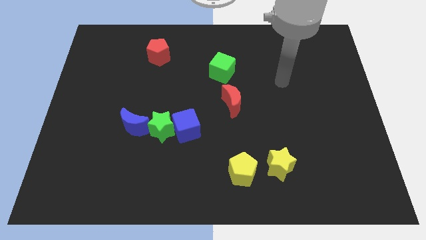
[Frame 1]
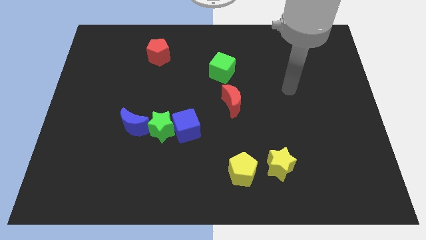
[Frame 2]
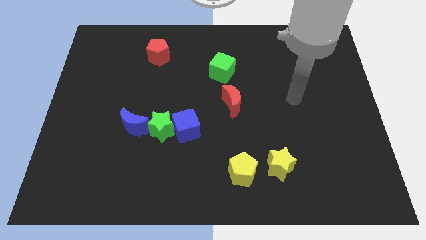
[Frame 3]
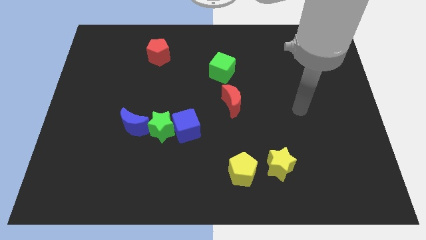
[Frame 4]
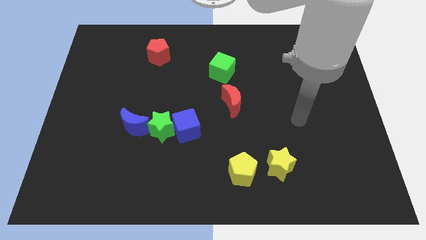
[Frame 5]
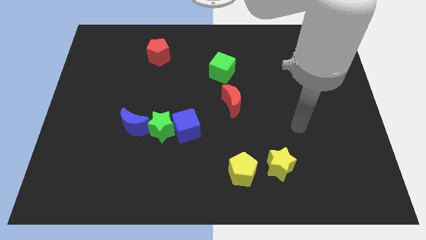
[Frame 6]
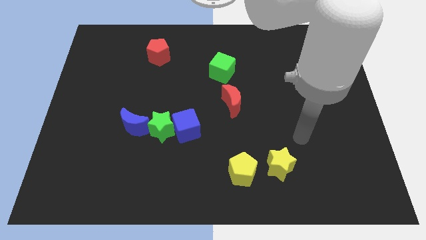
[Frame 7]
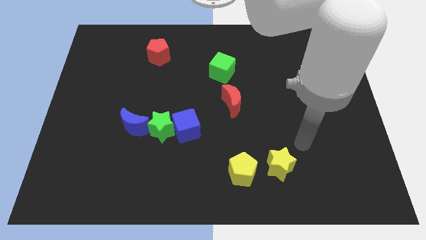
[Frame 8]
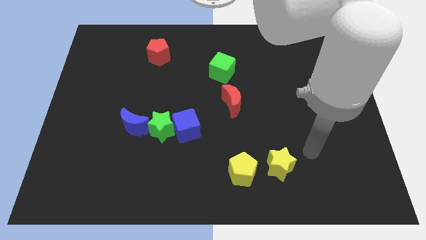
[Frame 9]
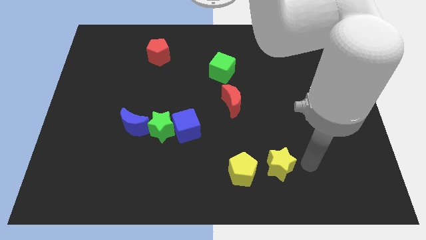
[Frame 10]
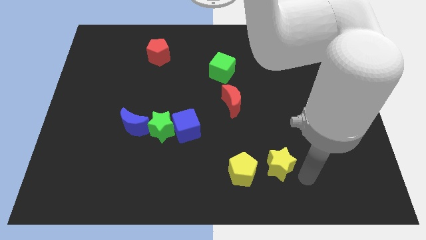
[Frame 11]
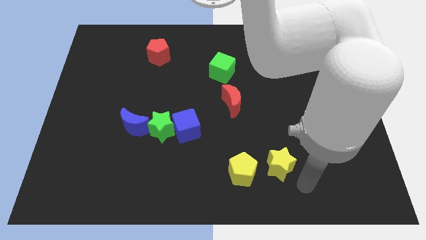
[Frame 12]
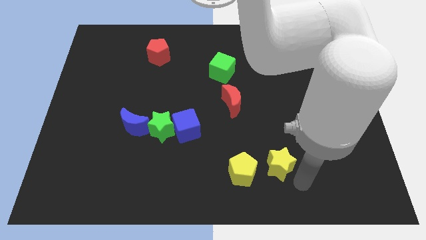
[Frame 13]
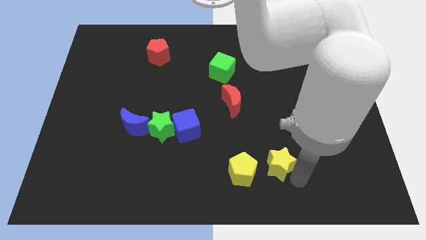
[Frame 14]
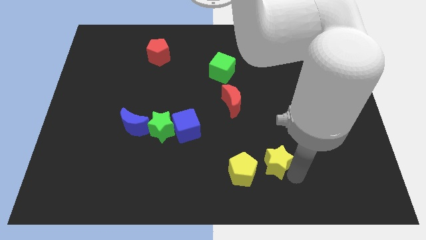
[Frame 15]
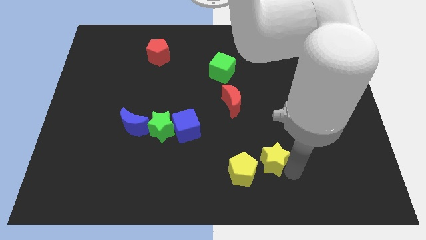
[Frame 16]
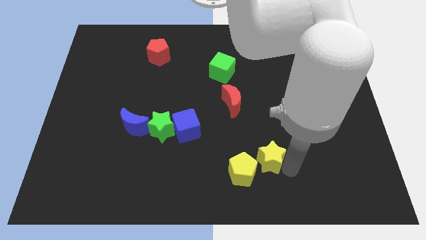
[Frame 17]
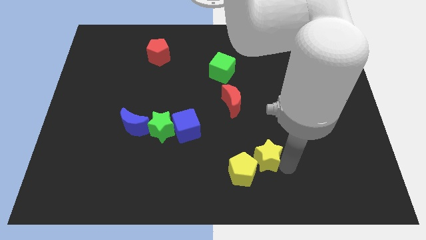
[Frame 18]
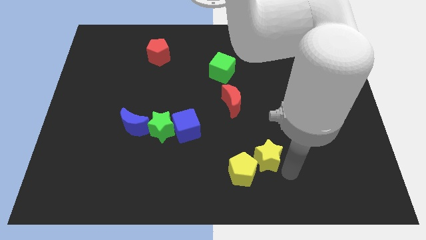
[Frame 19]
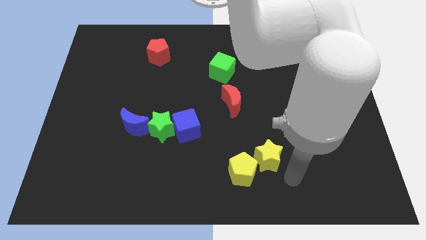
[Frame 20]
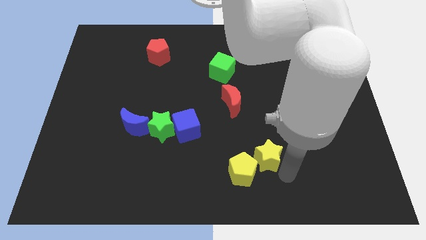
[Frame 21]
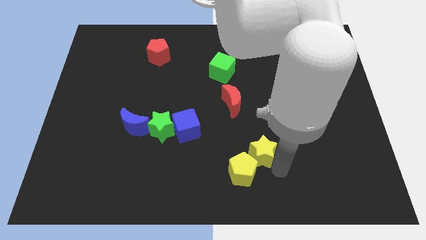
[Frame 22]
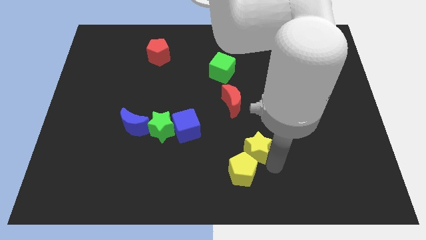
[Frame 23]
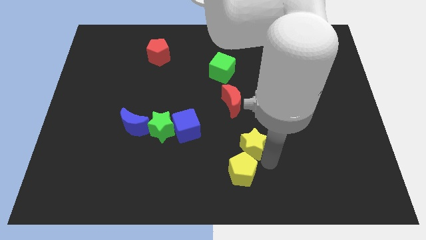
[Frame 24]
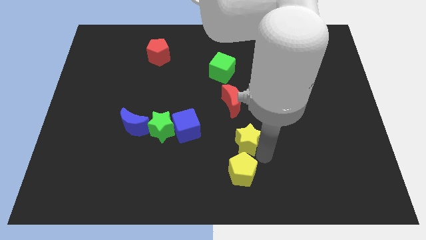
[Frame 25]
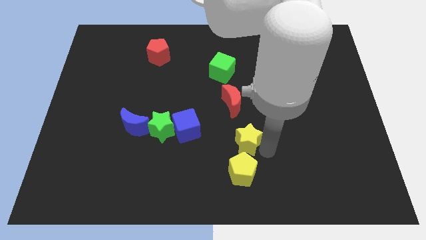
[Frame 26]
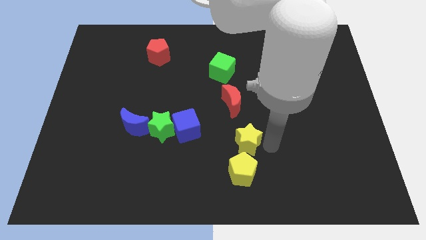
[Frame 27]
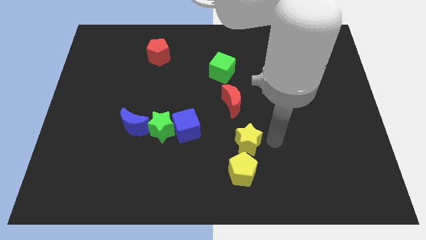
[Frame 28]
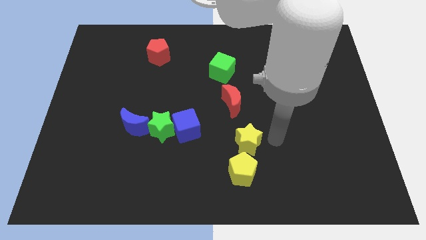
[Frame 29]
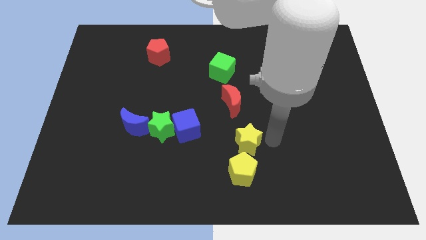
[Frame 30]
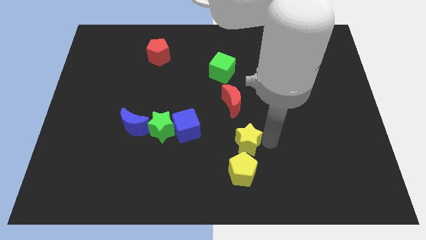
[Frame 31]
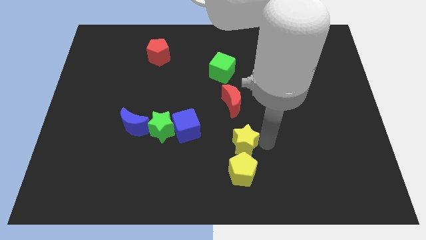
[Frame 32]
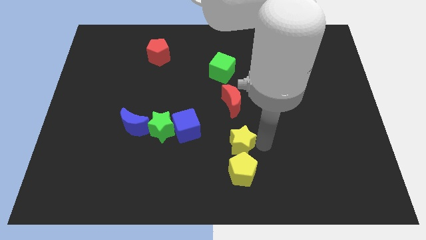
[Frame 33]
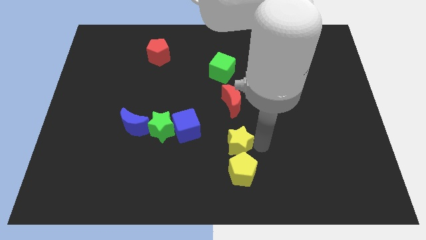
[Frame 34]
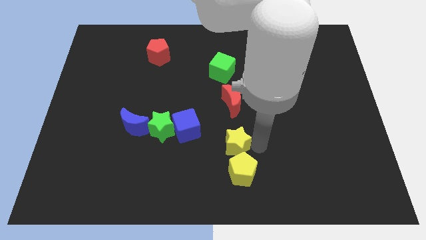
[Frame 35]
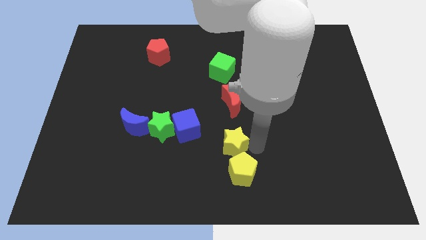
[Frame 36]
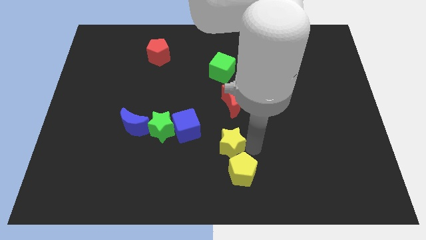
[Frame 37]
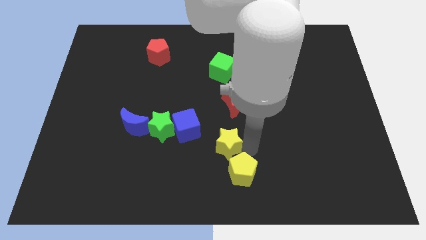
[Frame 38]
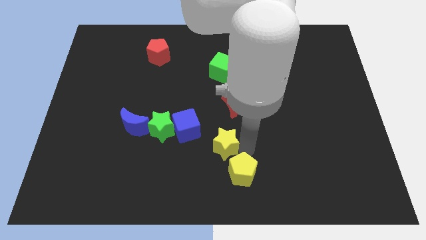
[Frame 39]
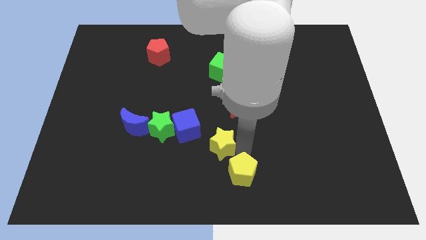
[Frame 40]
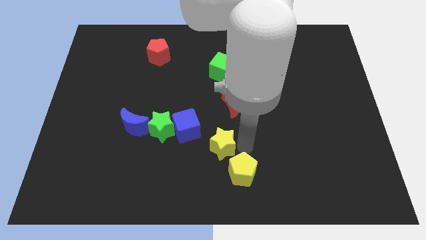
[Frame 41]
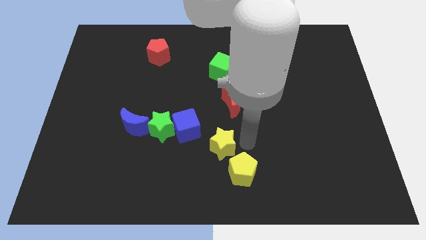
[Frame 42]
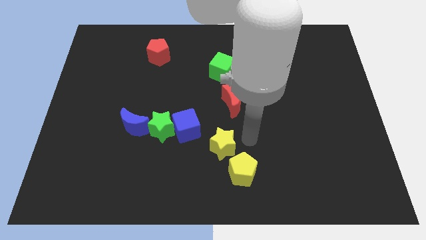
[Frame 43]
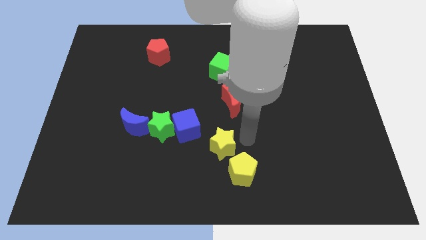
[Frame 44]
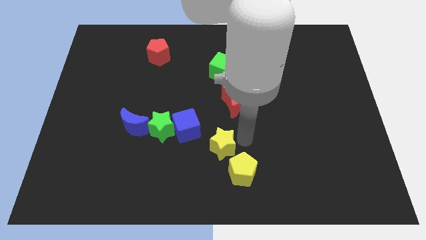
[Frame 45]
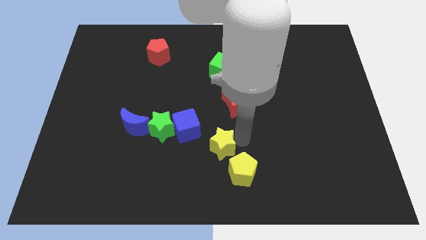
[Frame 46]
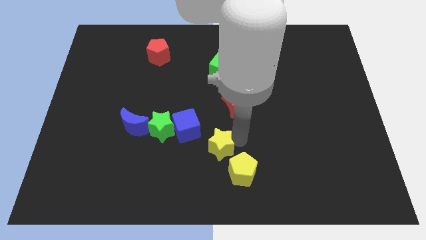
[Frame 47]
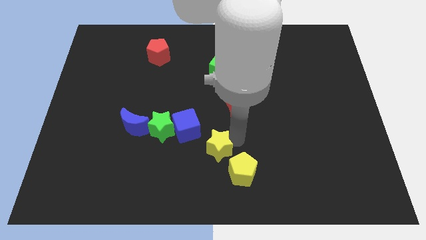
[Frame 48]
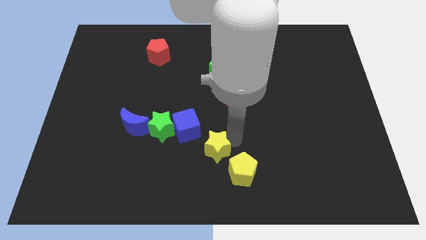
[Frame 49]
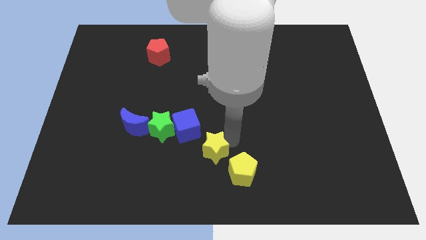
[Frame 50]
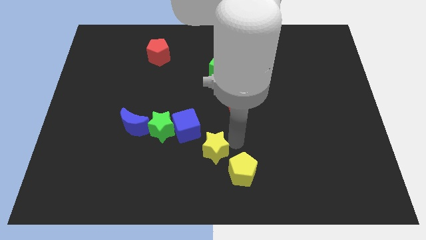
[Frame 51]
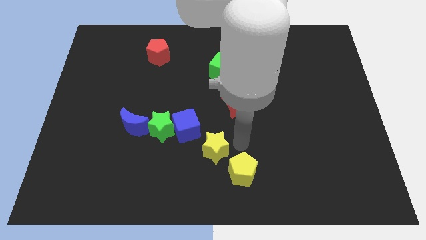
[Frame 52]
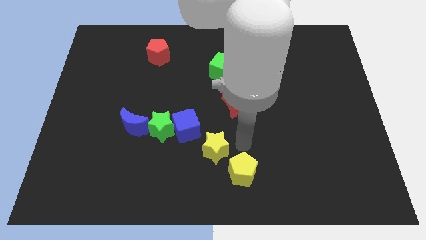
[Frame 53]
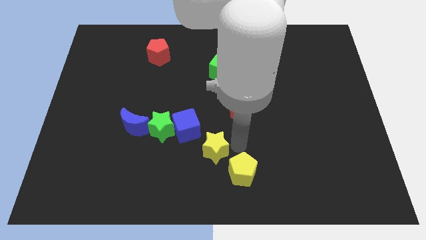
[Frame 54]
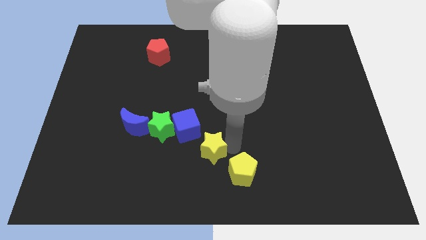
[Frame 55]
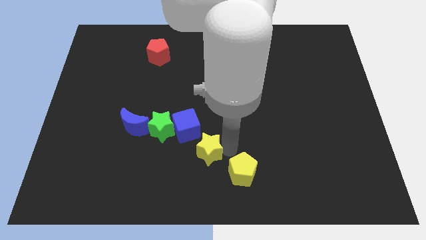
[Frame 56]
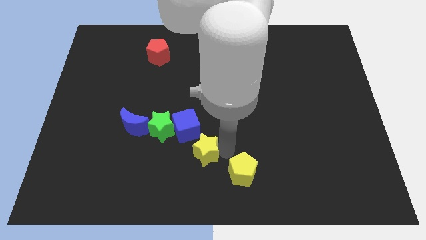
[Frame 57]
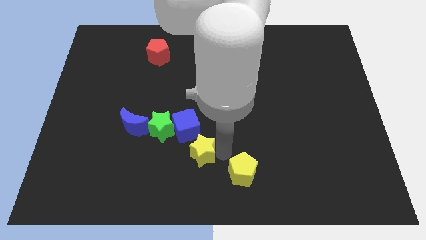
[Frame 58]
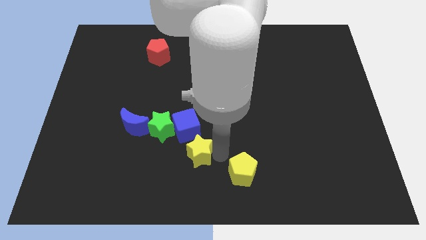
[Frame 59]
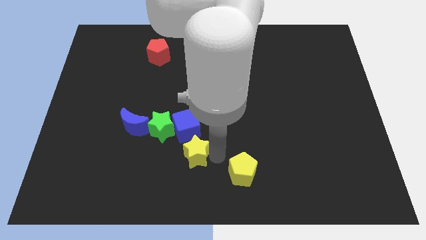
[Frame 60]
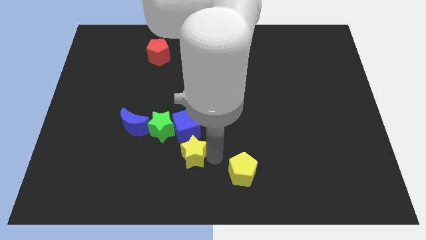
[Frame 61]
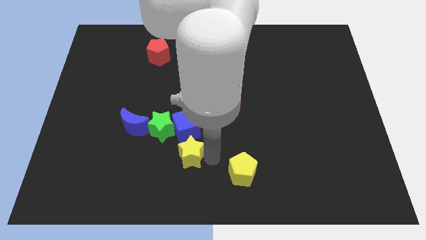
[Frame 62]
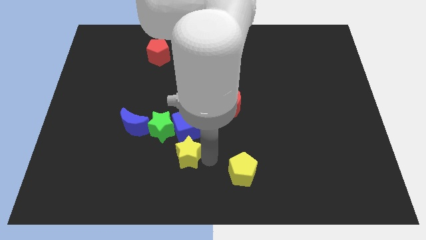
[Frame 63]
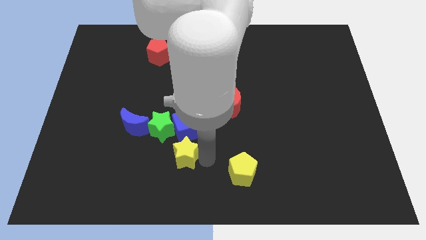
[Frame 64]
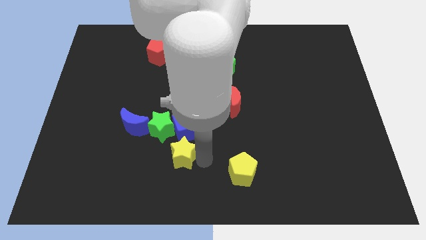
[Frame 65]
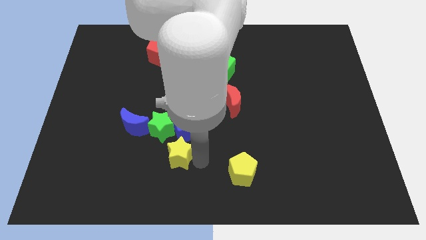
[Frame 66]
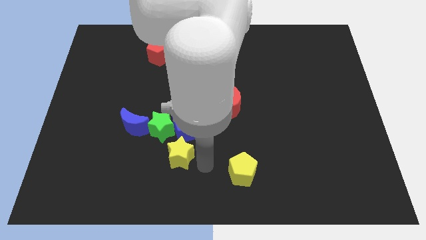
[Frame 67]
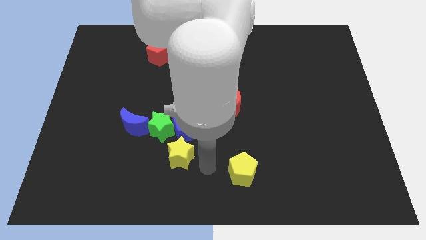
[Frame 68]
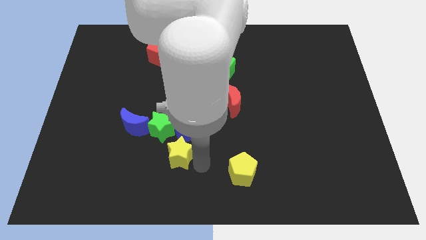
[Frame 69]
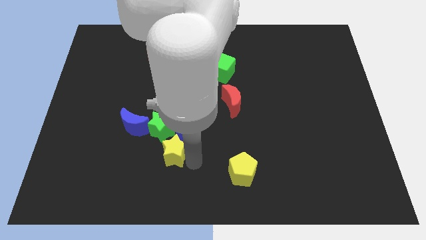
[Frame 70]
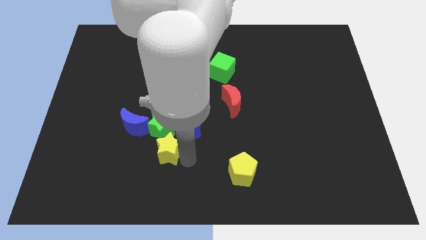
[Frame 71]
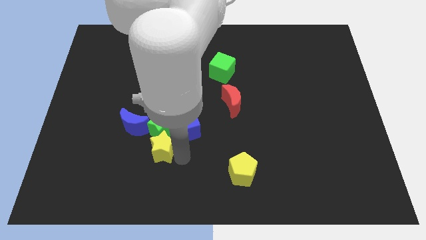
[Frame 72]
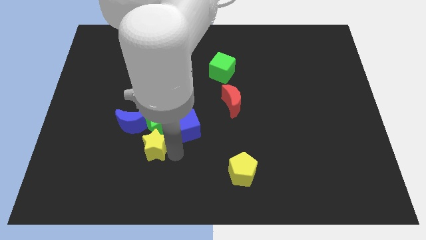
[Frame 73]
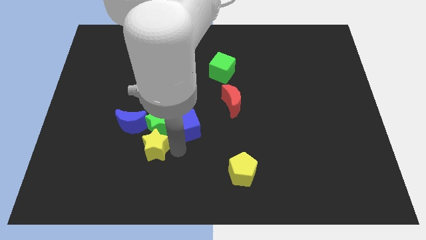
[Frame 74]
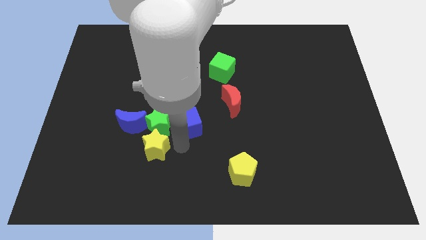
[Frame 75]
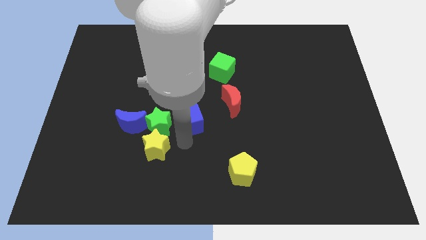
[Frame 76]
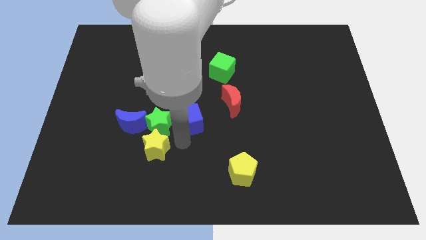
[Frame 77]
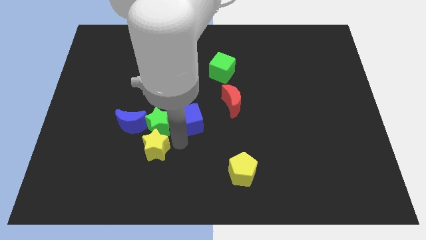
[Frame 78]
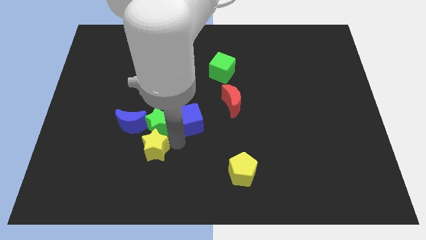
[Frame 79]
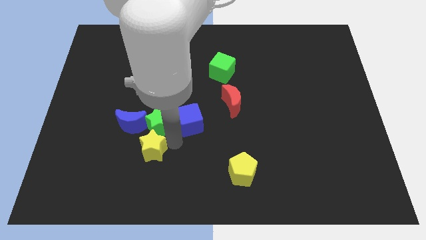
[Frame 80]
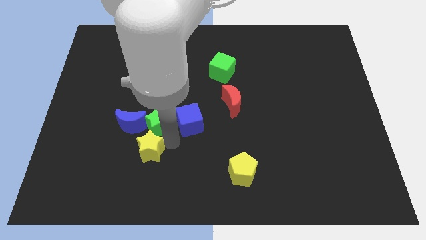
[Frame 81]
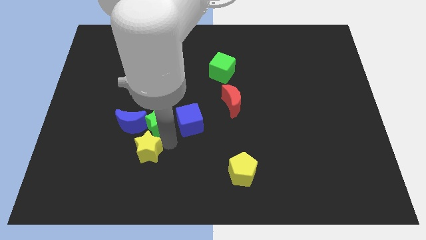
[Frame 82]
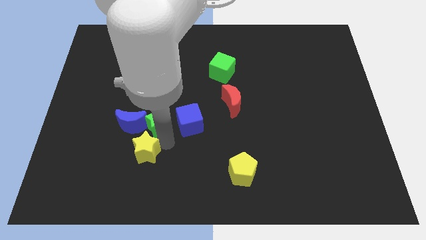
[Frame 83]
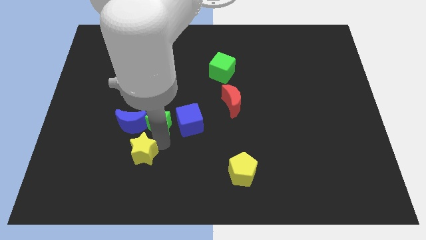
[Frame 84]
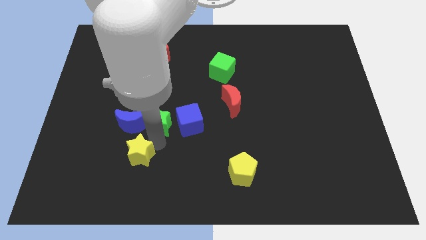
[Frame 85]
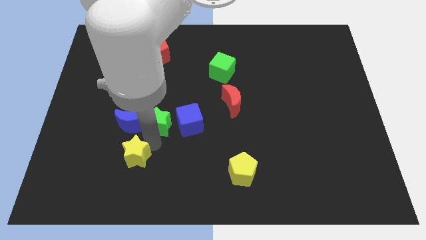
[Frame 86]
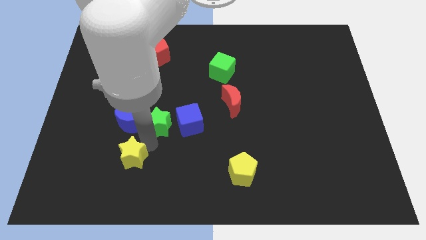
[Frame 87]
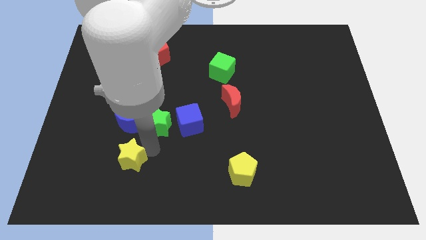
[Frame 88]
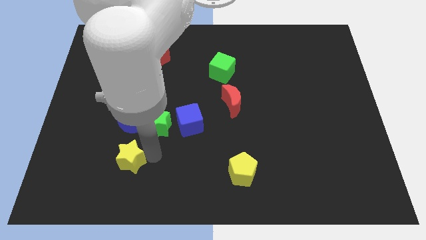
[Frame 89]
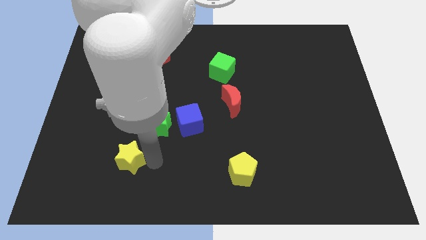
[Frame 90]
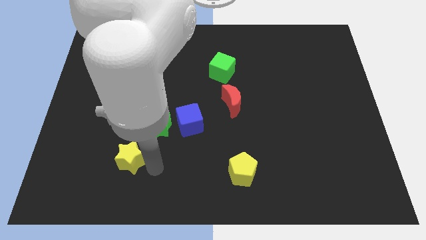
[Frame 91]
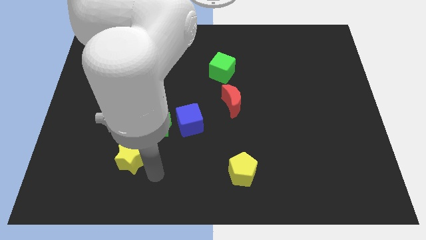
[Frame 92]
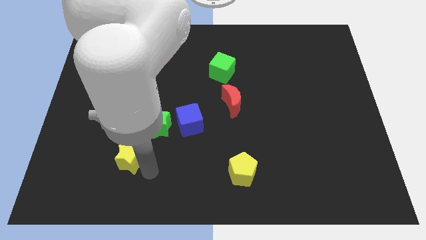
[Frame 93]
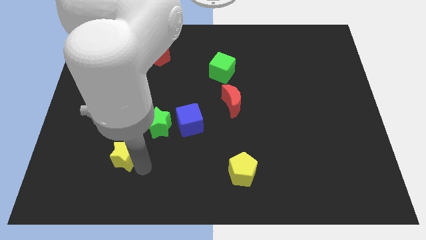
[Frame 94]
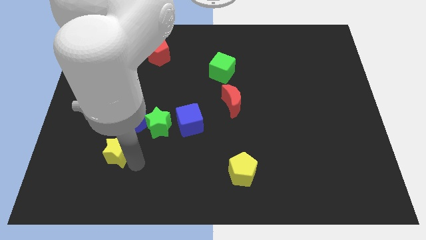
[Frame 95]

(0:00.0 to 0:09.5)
slide the yellow star to the bottom left of the blue moon
